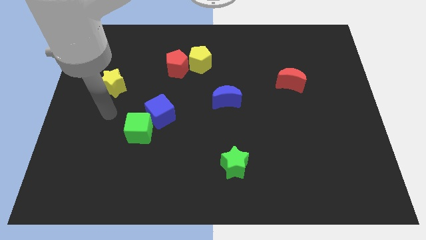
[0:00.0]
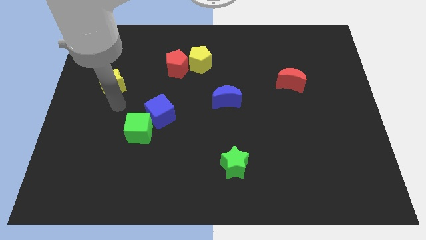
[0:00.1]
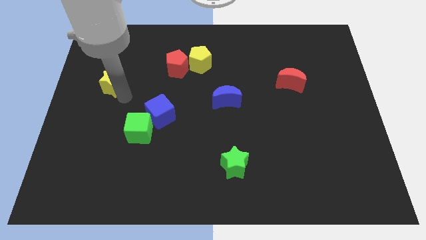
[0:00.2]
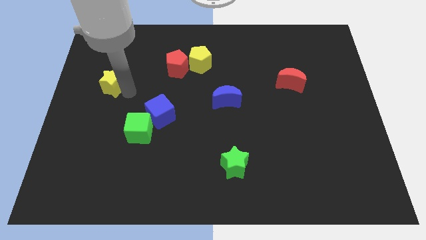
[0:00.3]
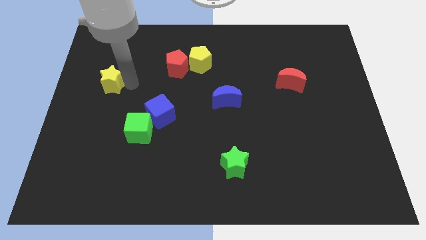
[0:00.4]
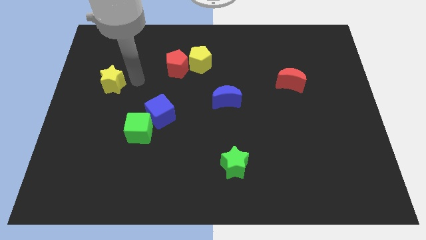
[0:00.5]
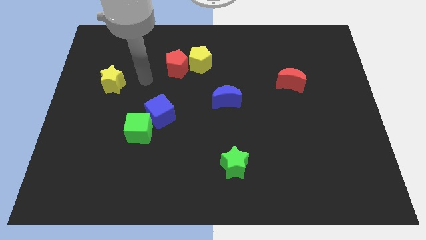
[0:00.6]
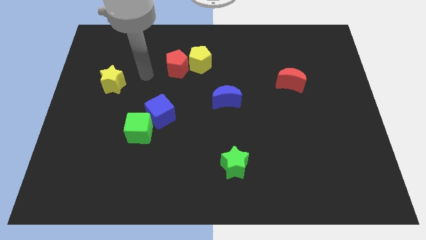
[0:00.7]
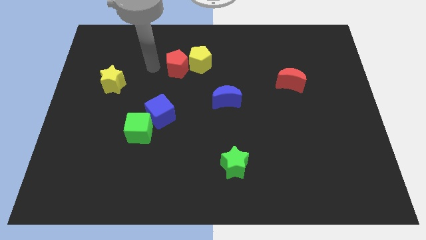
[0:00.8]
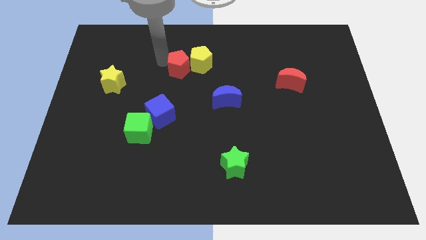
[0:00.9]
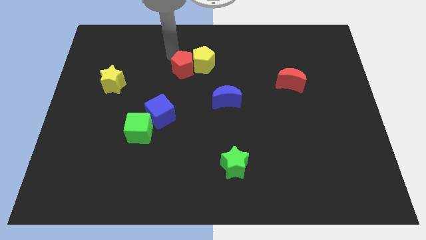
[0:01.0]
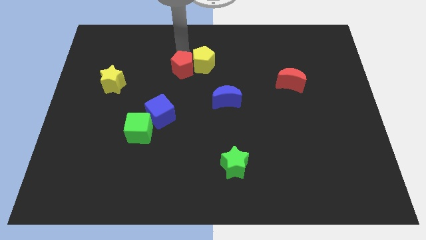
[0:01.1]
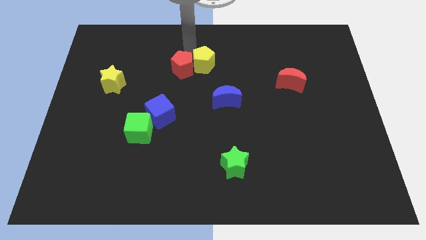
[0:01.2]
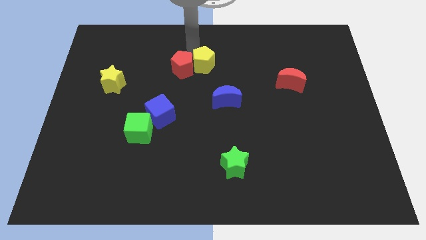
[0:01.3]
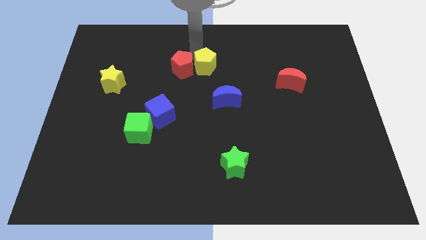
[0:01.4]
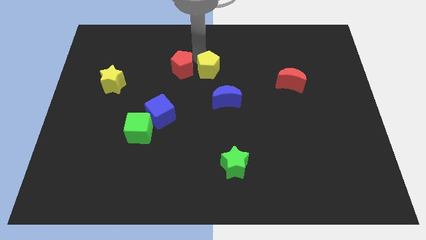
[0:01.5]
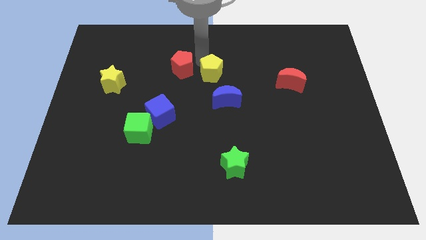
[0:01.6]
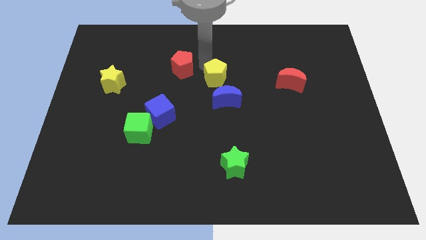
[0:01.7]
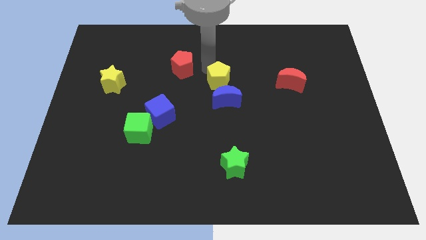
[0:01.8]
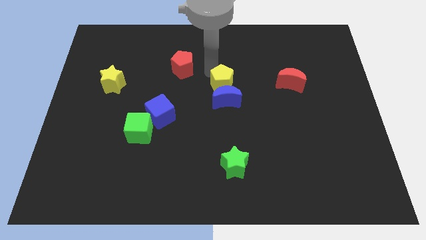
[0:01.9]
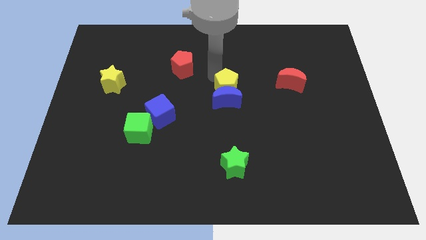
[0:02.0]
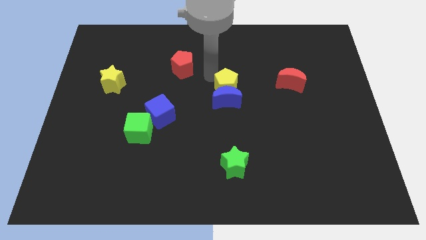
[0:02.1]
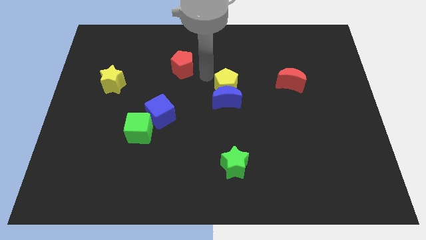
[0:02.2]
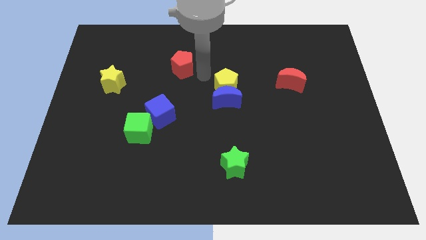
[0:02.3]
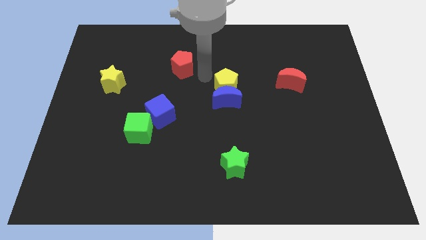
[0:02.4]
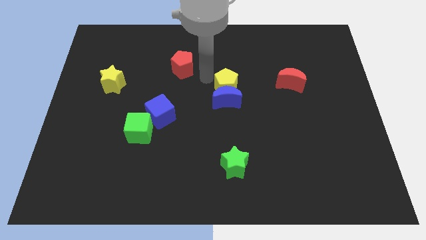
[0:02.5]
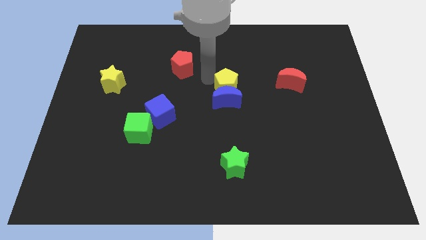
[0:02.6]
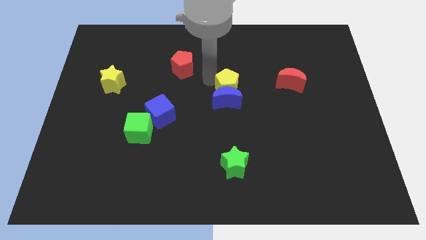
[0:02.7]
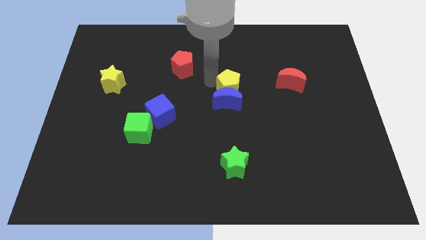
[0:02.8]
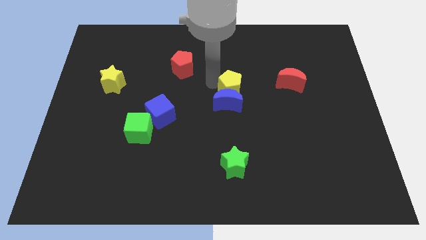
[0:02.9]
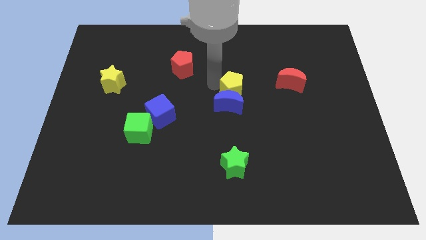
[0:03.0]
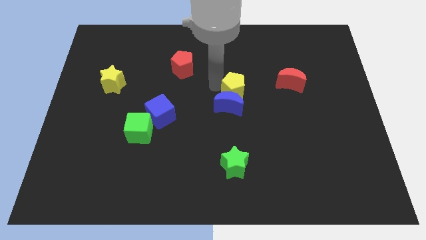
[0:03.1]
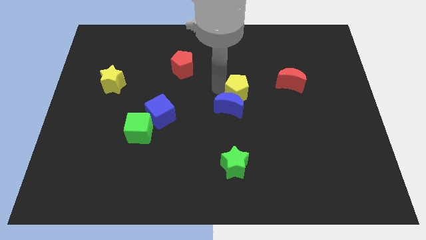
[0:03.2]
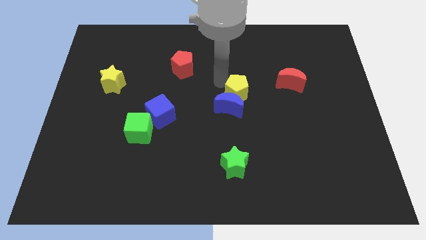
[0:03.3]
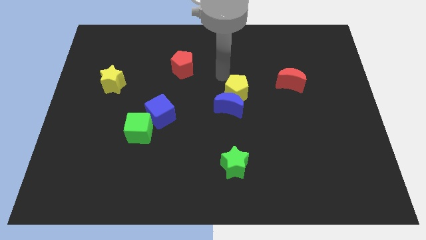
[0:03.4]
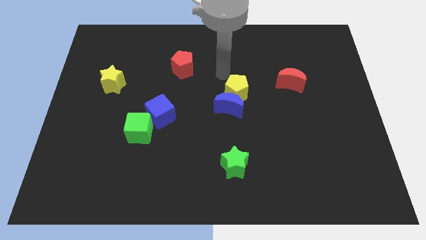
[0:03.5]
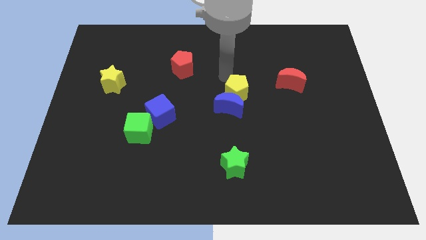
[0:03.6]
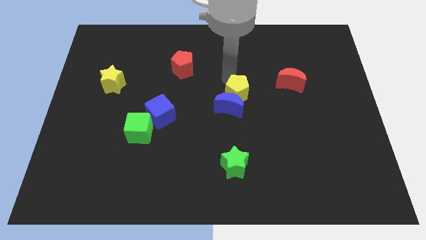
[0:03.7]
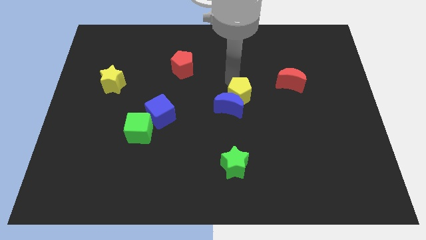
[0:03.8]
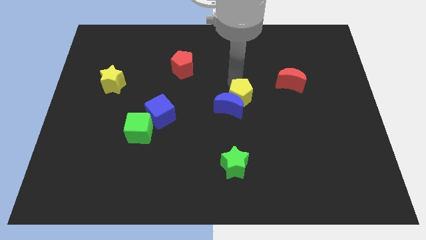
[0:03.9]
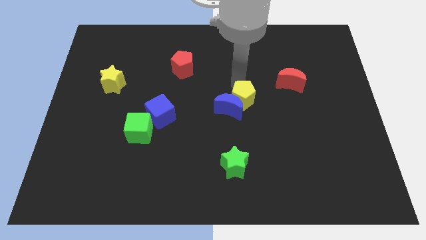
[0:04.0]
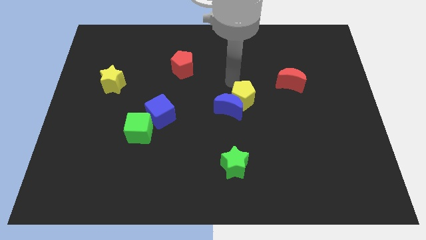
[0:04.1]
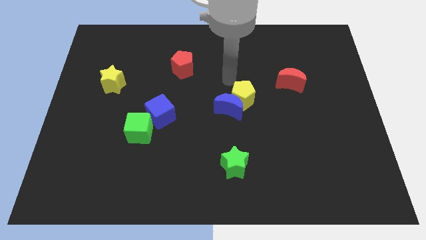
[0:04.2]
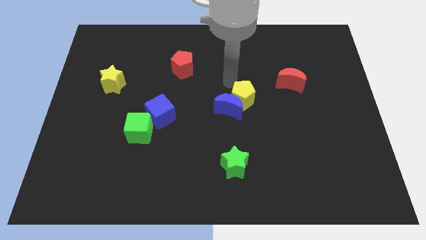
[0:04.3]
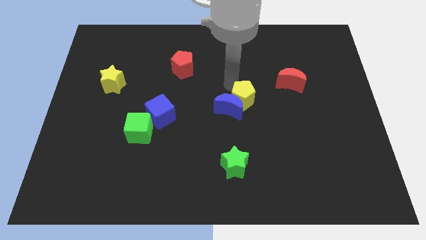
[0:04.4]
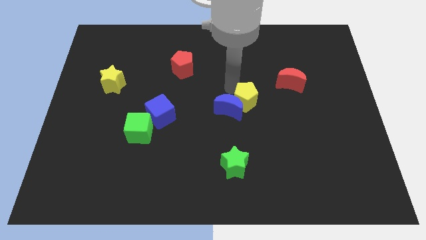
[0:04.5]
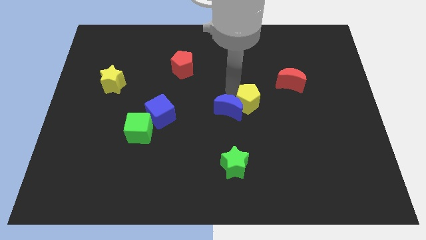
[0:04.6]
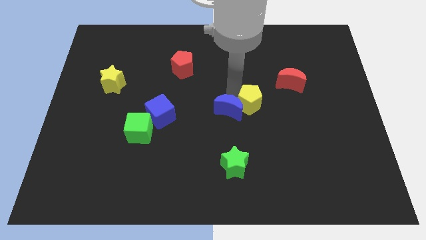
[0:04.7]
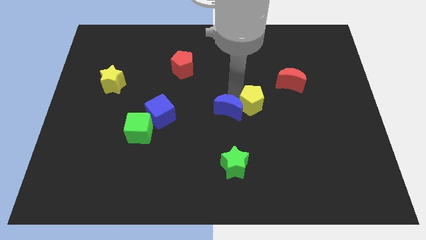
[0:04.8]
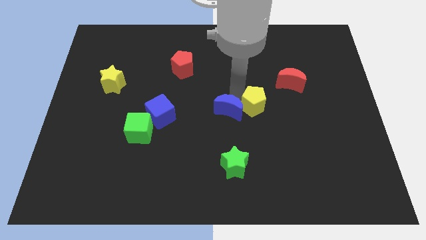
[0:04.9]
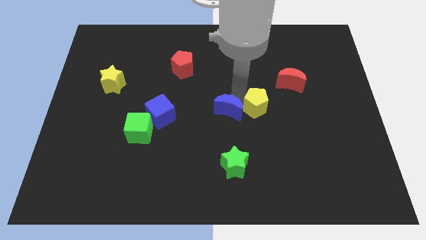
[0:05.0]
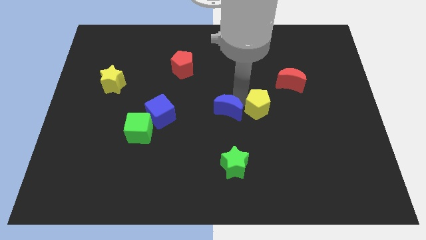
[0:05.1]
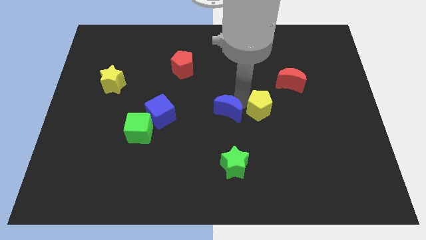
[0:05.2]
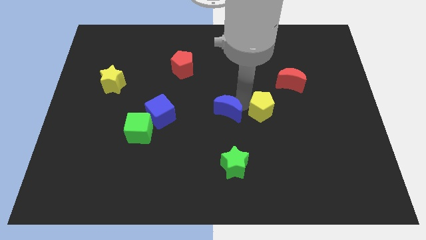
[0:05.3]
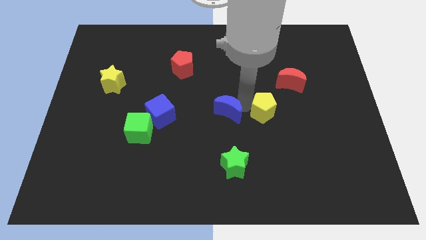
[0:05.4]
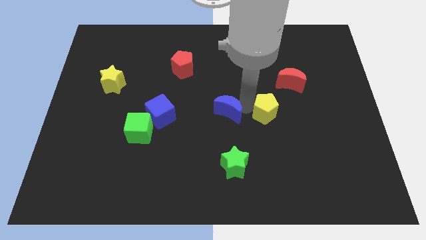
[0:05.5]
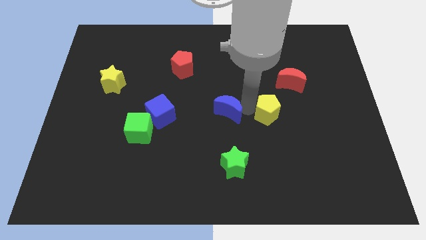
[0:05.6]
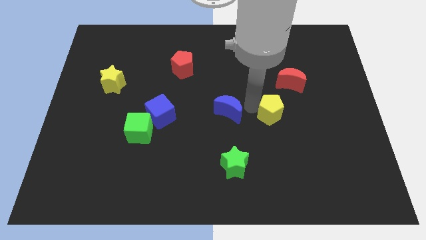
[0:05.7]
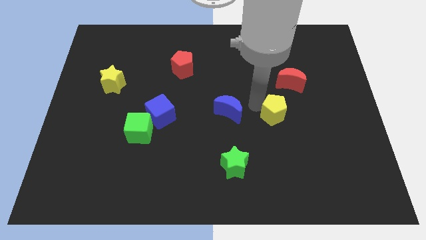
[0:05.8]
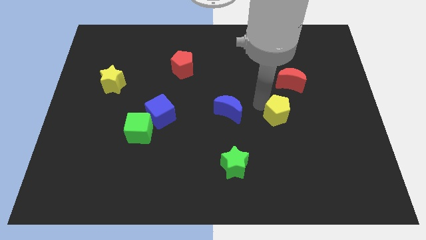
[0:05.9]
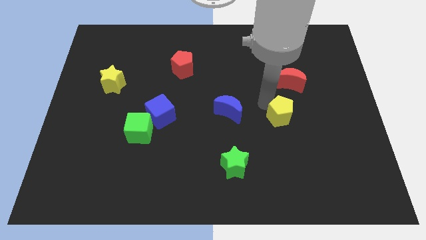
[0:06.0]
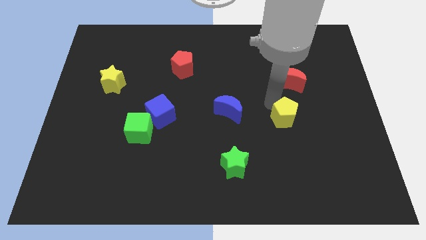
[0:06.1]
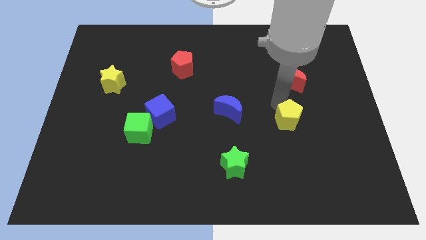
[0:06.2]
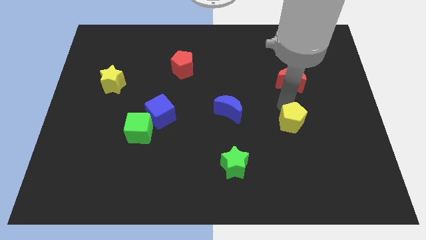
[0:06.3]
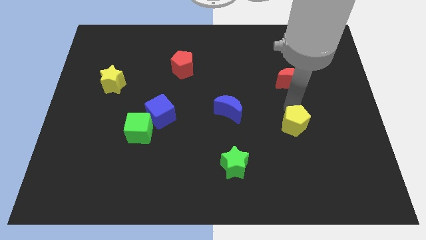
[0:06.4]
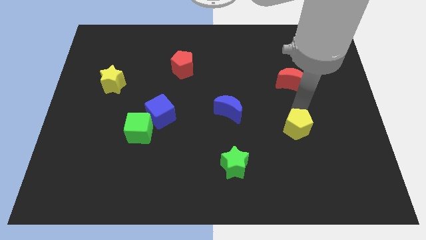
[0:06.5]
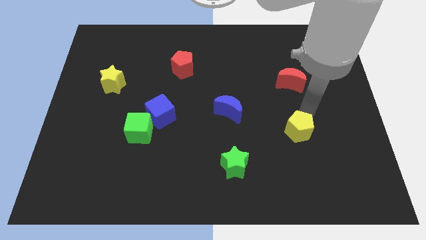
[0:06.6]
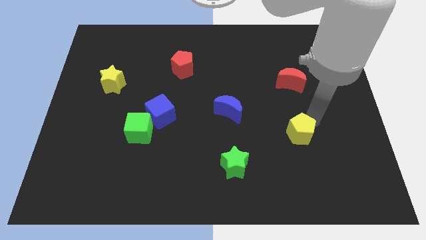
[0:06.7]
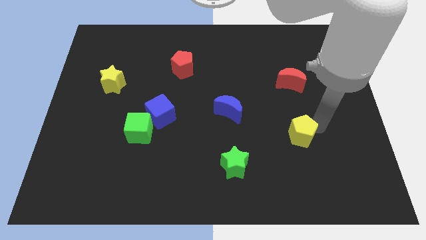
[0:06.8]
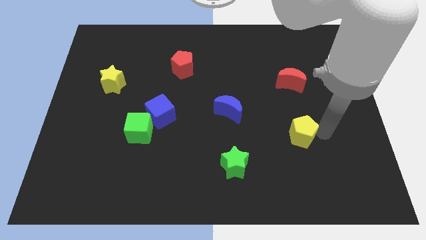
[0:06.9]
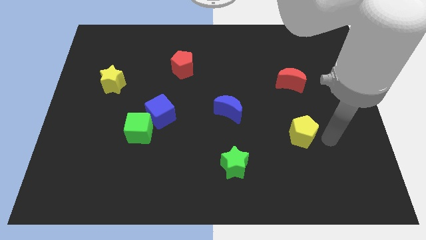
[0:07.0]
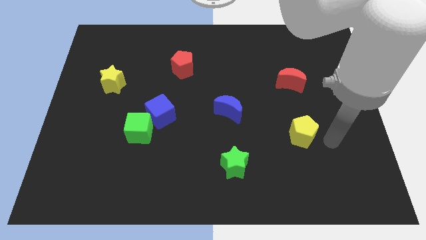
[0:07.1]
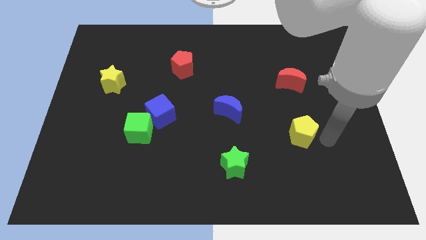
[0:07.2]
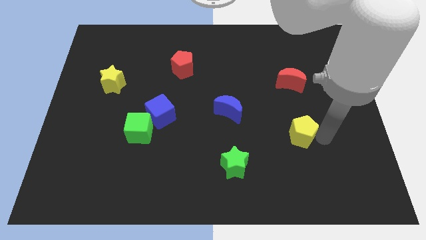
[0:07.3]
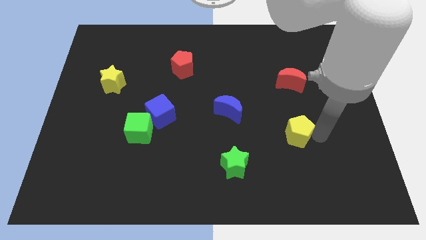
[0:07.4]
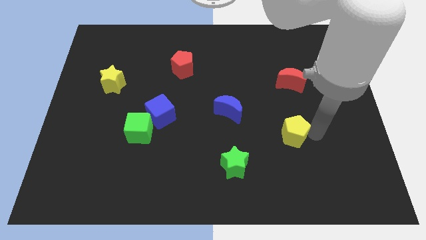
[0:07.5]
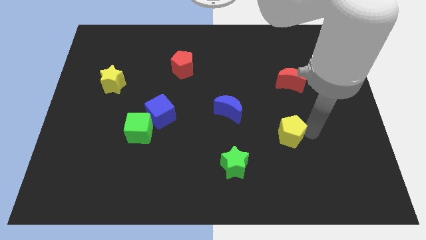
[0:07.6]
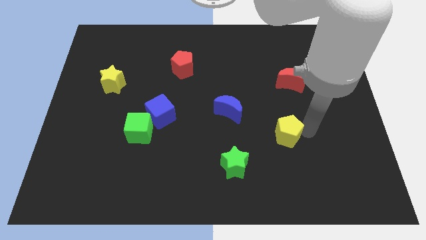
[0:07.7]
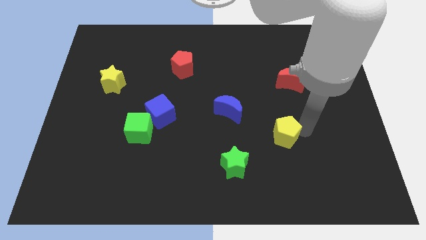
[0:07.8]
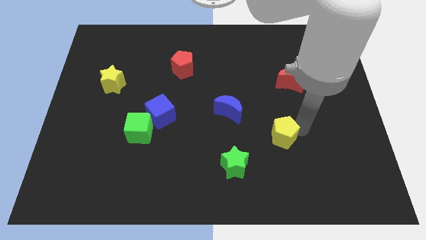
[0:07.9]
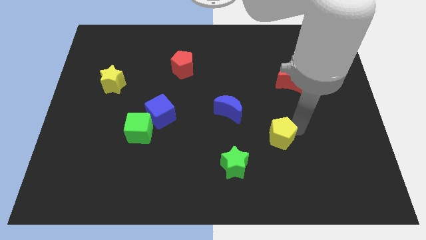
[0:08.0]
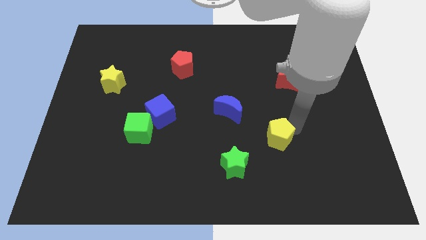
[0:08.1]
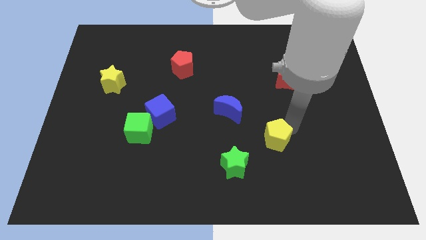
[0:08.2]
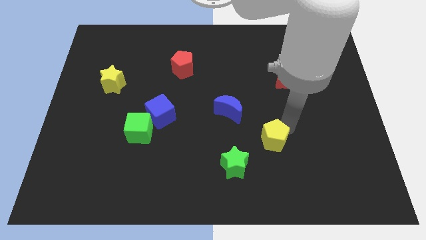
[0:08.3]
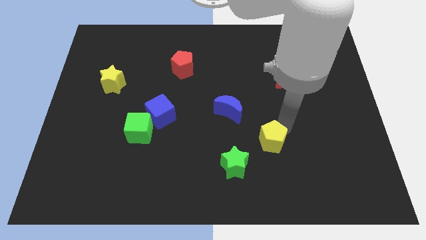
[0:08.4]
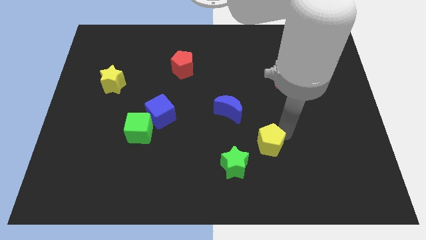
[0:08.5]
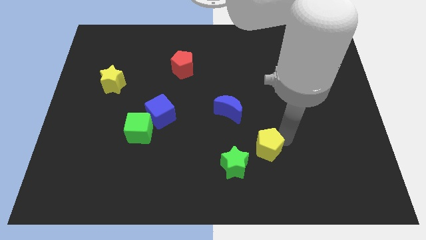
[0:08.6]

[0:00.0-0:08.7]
slide the yellow pentagon to the right side of the green star
